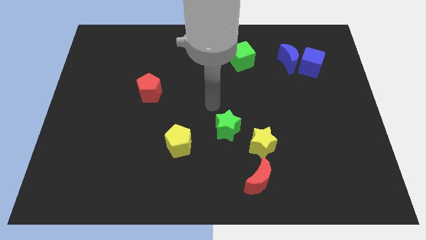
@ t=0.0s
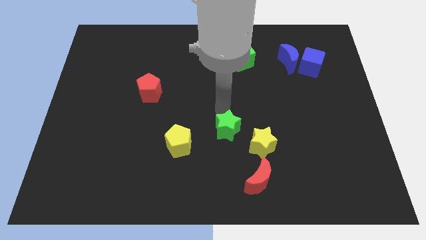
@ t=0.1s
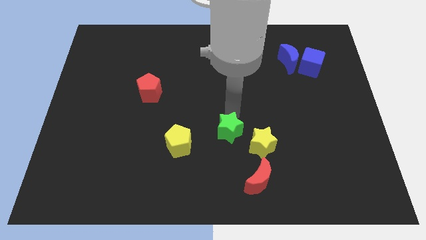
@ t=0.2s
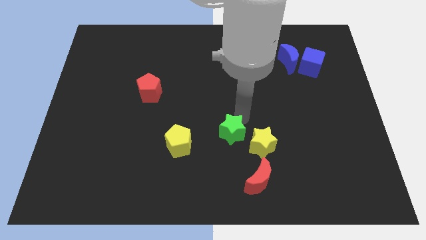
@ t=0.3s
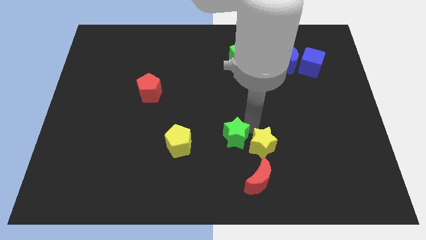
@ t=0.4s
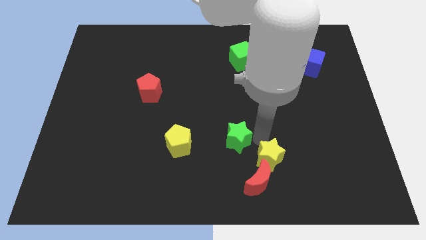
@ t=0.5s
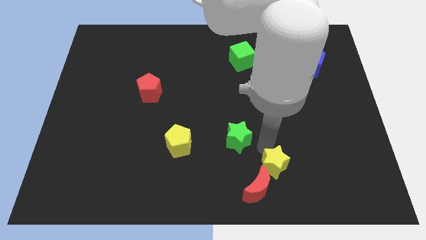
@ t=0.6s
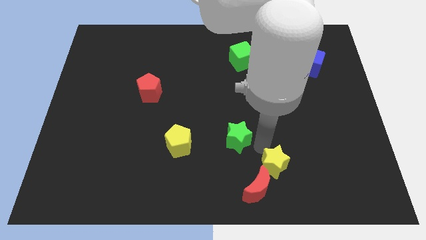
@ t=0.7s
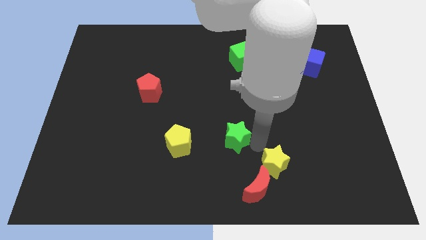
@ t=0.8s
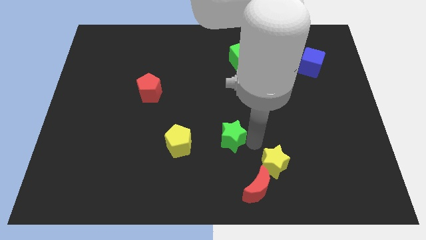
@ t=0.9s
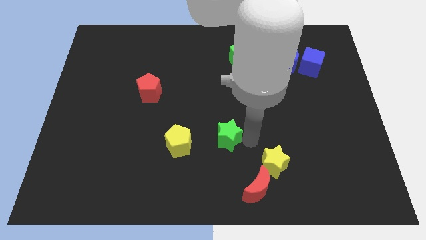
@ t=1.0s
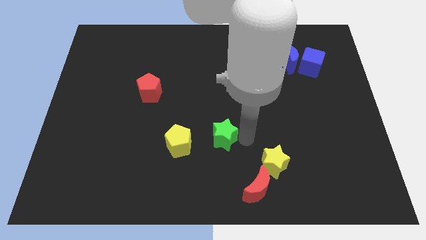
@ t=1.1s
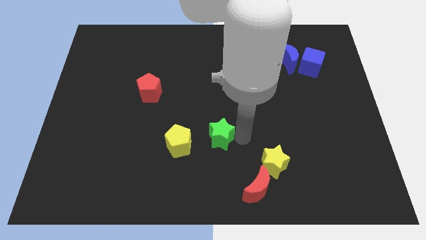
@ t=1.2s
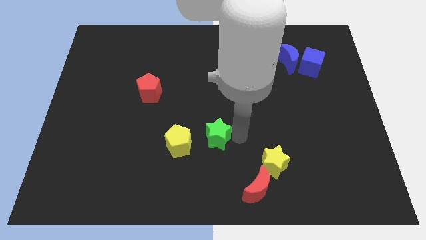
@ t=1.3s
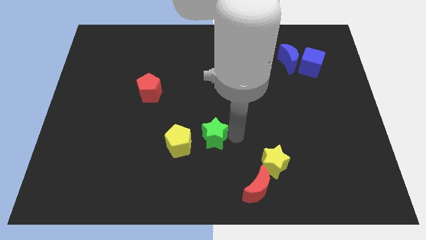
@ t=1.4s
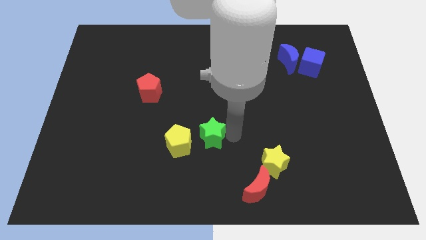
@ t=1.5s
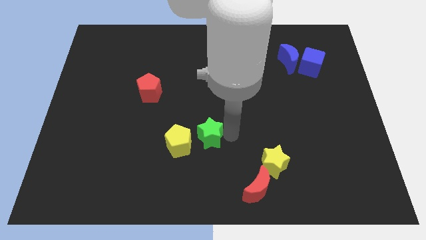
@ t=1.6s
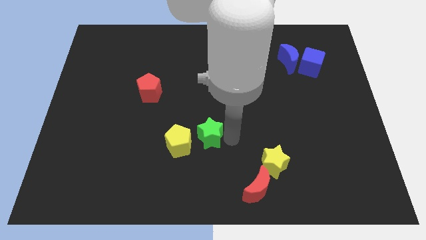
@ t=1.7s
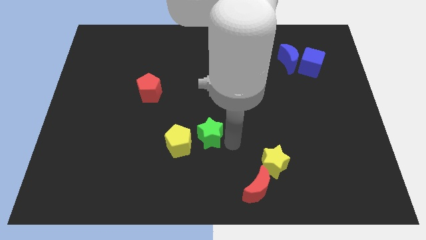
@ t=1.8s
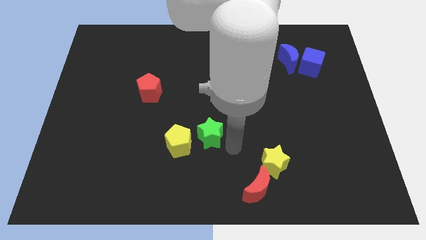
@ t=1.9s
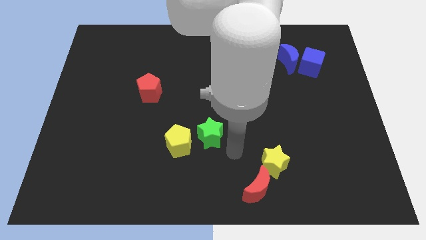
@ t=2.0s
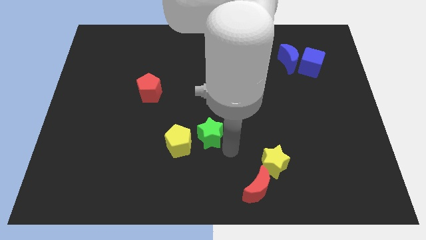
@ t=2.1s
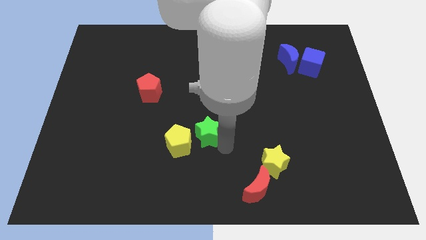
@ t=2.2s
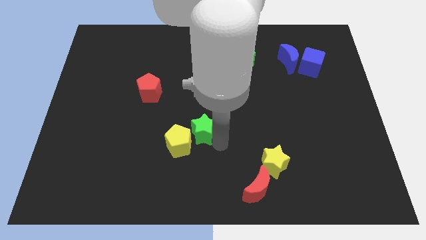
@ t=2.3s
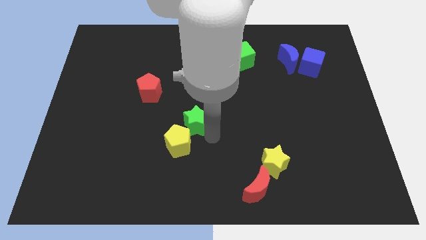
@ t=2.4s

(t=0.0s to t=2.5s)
slightly push the green star to the left

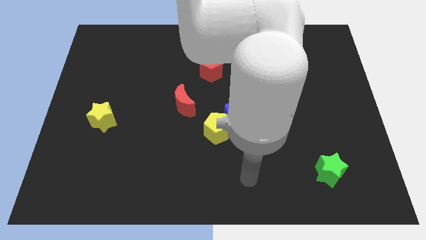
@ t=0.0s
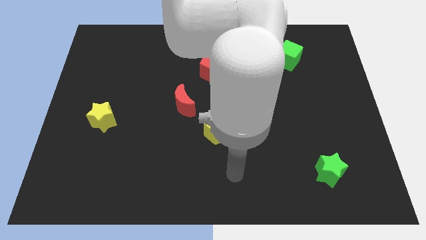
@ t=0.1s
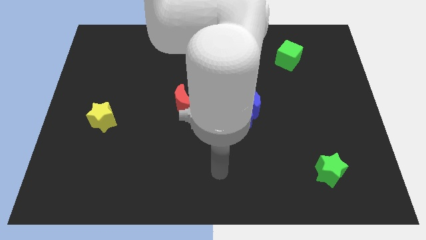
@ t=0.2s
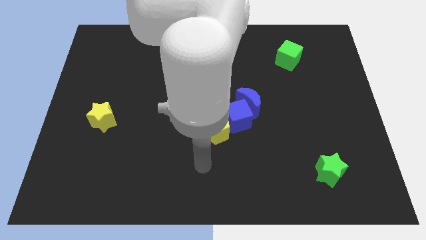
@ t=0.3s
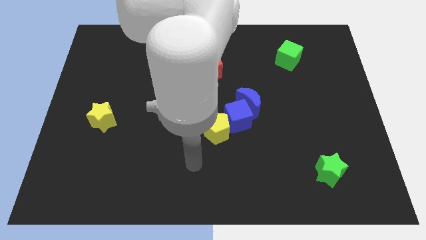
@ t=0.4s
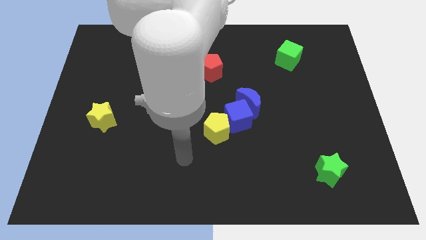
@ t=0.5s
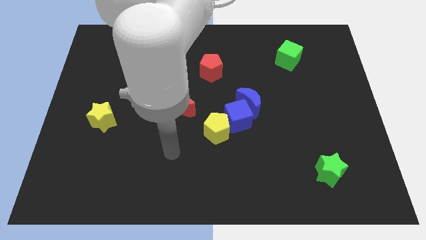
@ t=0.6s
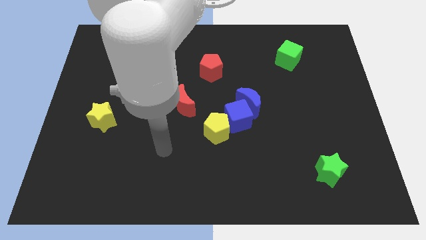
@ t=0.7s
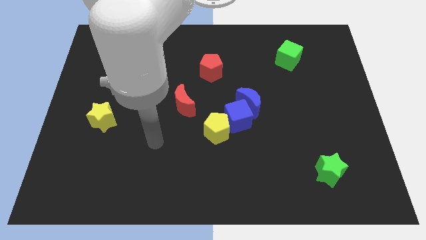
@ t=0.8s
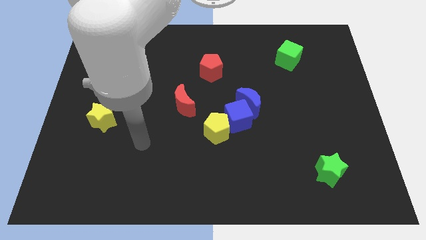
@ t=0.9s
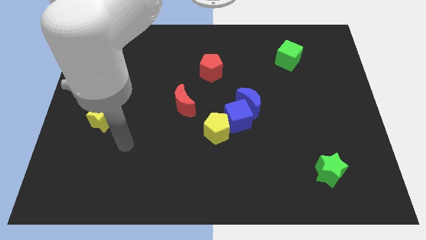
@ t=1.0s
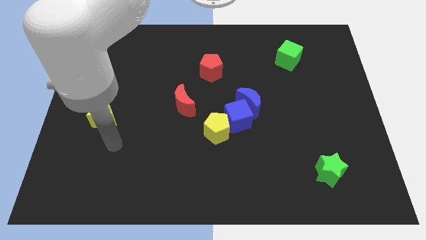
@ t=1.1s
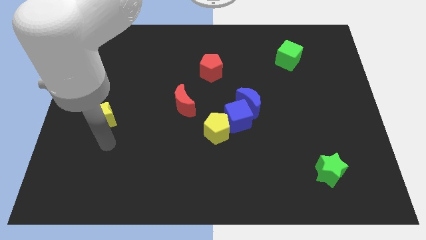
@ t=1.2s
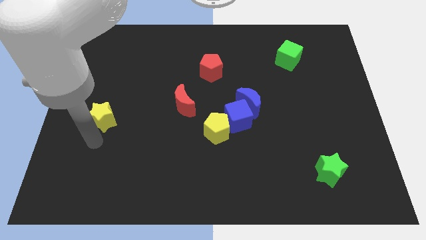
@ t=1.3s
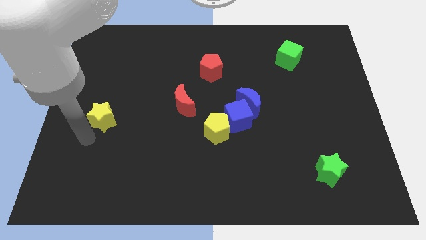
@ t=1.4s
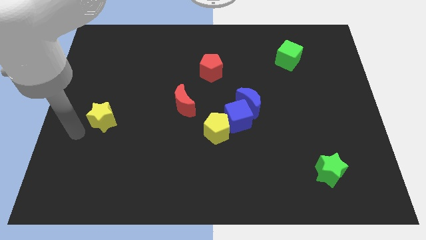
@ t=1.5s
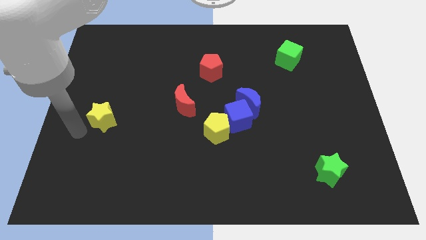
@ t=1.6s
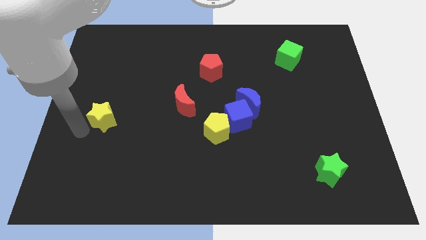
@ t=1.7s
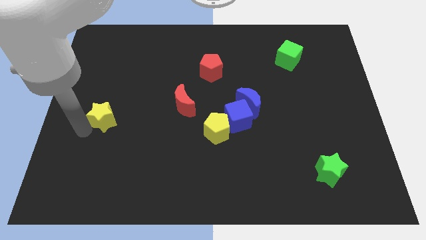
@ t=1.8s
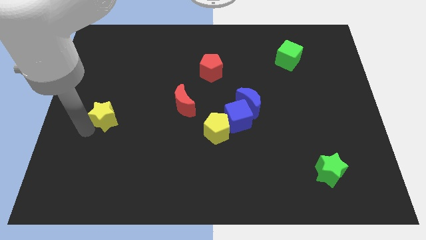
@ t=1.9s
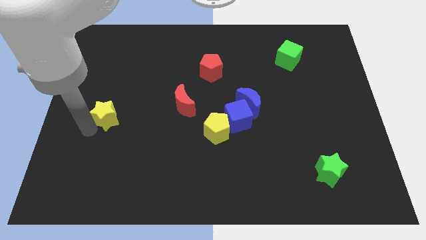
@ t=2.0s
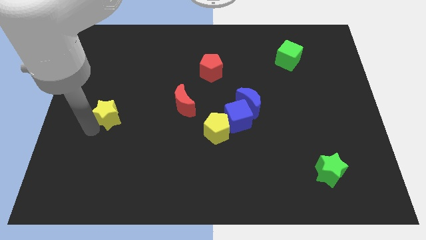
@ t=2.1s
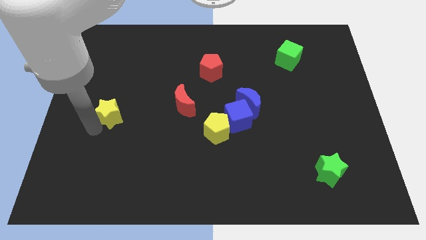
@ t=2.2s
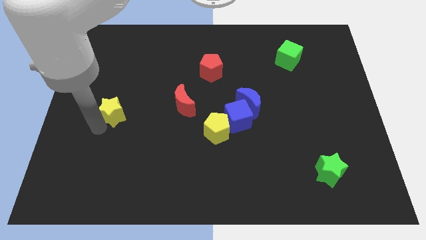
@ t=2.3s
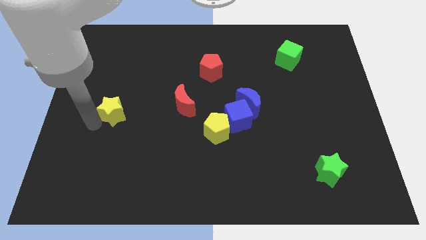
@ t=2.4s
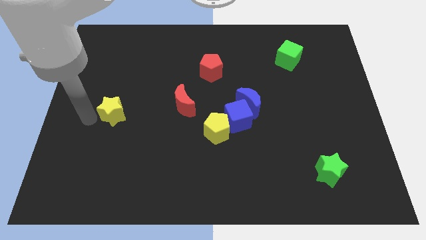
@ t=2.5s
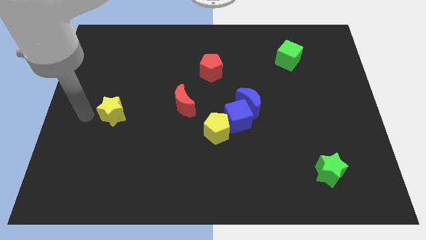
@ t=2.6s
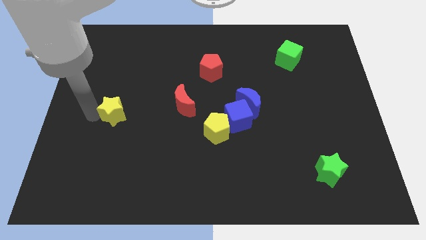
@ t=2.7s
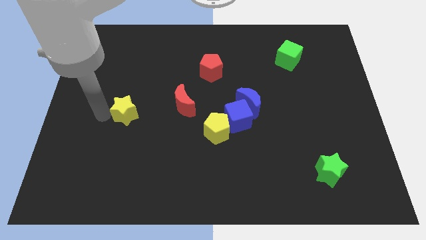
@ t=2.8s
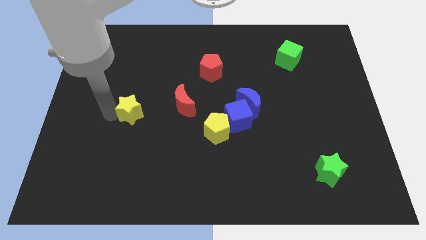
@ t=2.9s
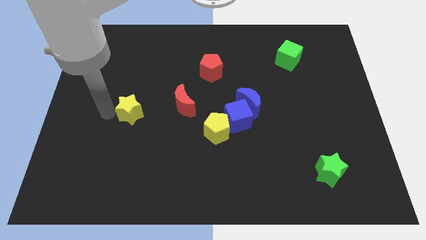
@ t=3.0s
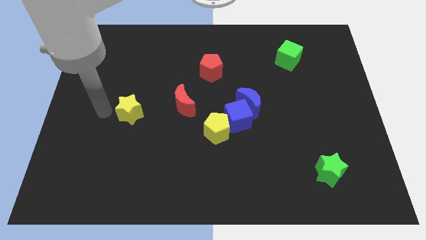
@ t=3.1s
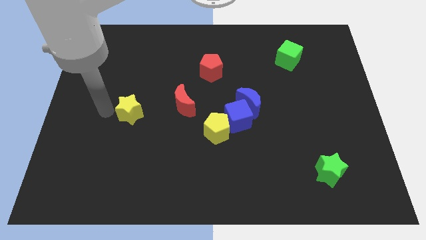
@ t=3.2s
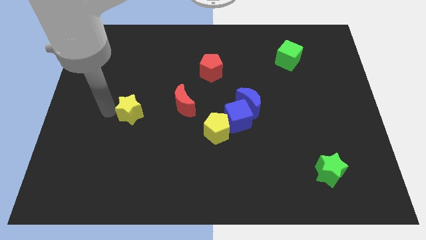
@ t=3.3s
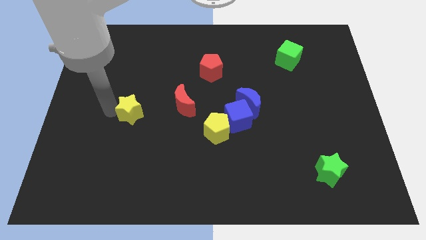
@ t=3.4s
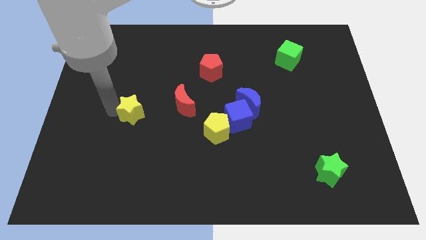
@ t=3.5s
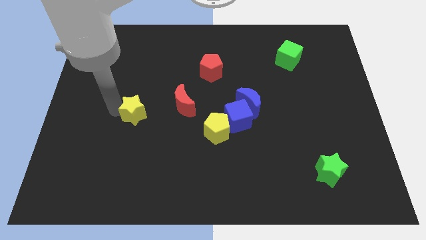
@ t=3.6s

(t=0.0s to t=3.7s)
move the yellow star a little right

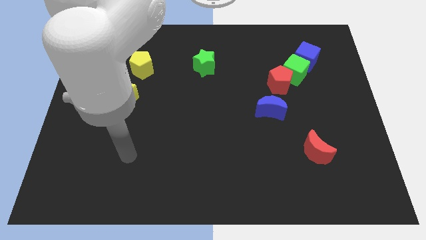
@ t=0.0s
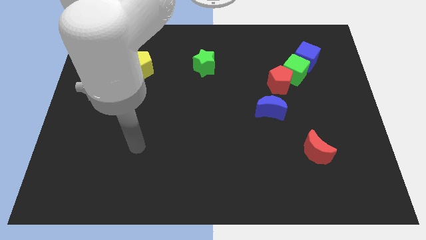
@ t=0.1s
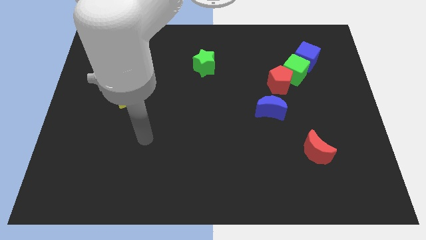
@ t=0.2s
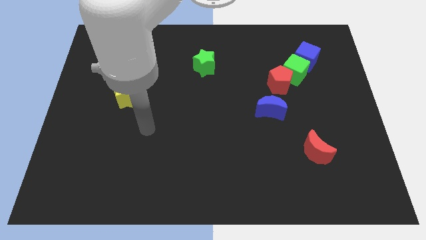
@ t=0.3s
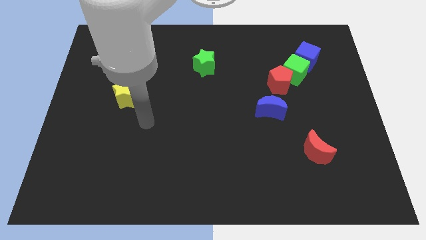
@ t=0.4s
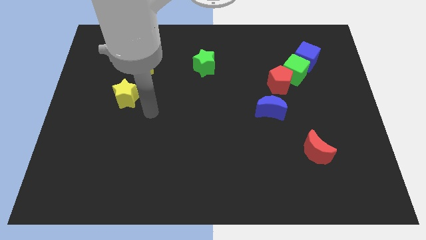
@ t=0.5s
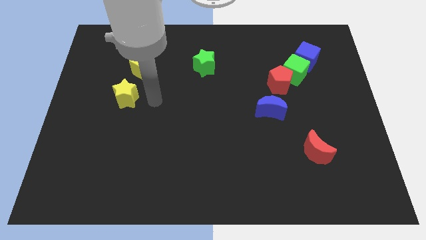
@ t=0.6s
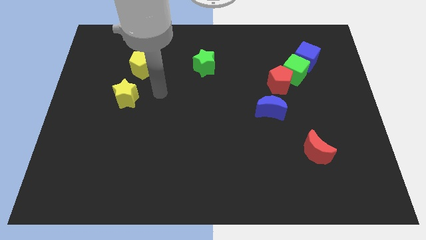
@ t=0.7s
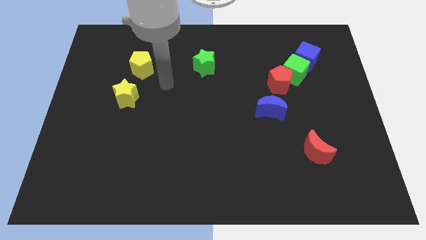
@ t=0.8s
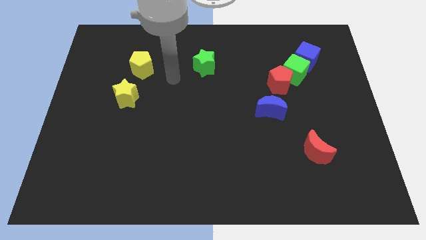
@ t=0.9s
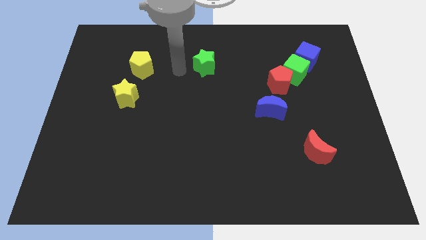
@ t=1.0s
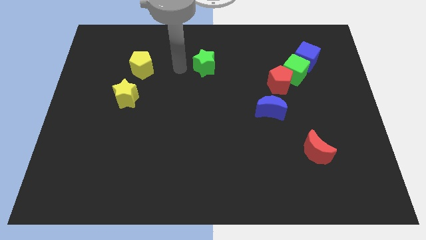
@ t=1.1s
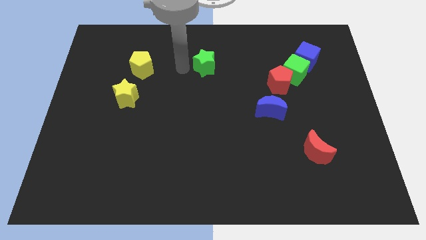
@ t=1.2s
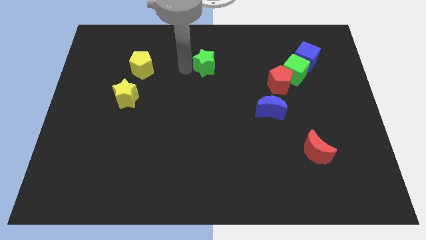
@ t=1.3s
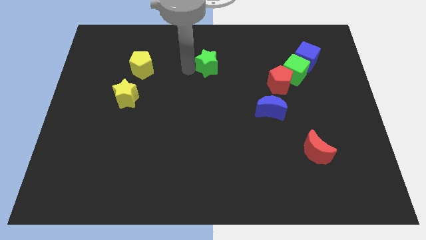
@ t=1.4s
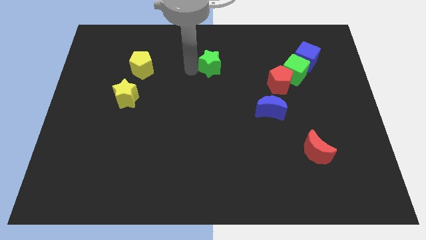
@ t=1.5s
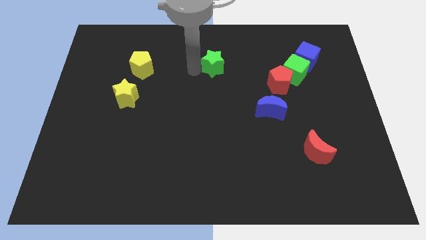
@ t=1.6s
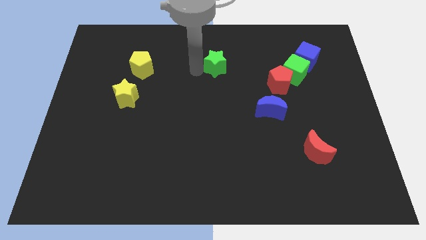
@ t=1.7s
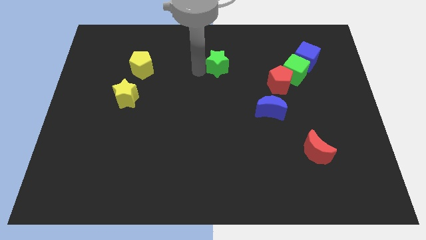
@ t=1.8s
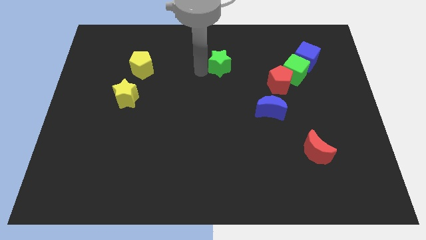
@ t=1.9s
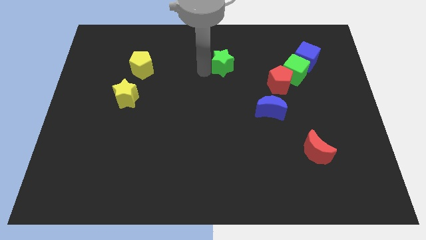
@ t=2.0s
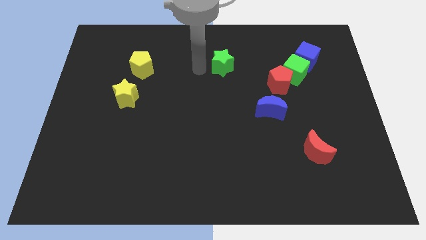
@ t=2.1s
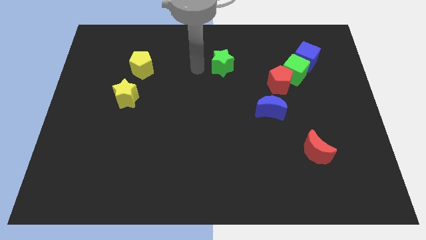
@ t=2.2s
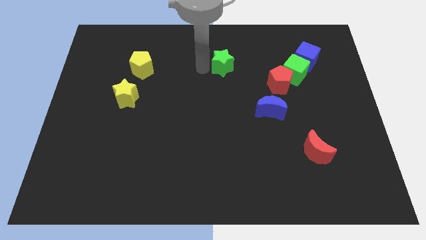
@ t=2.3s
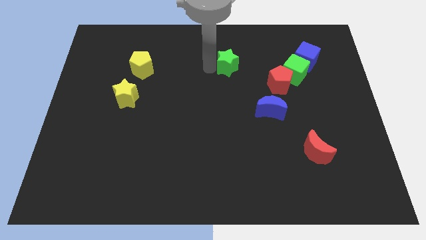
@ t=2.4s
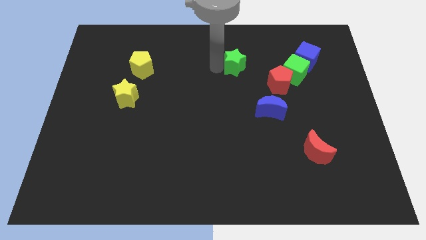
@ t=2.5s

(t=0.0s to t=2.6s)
slightly push the green star right
